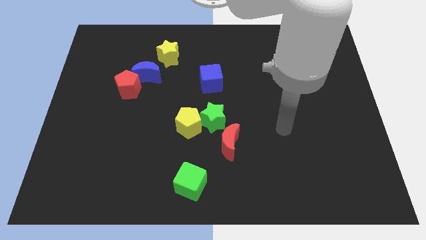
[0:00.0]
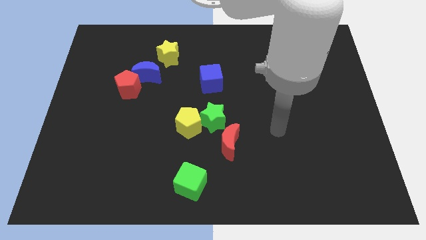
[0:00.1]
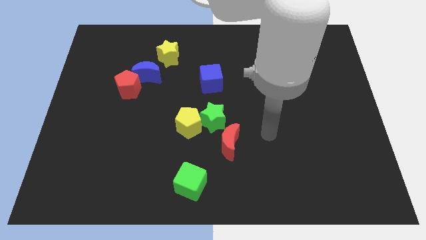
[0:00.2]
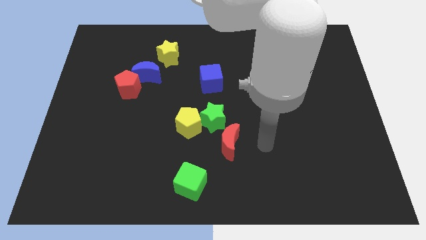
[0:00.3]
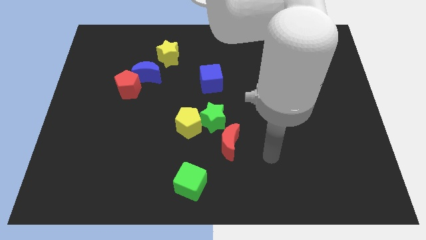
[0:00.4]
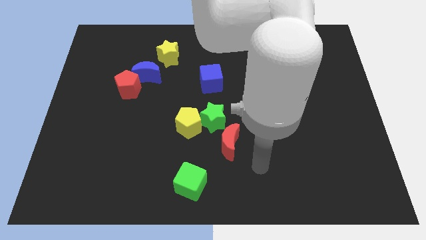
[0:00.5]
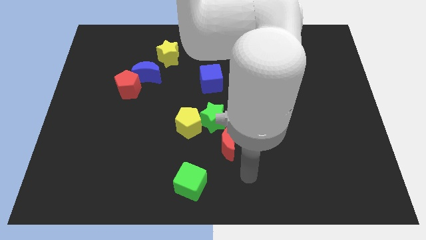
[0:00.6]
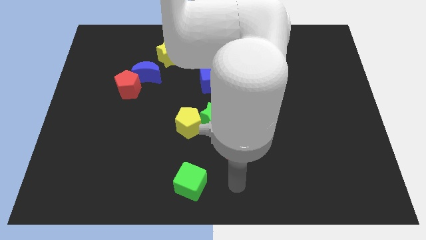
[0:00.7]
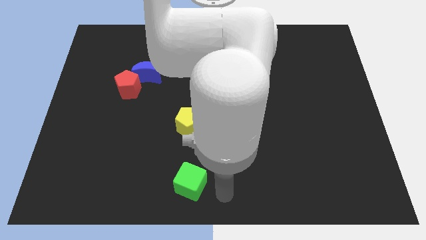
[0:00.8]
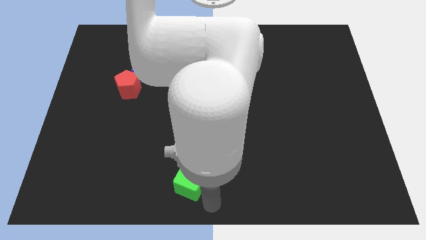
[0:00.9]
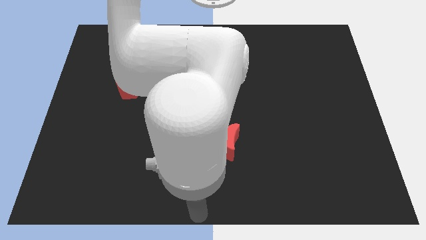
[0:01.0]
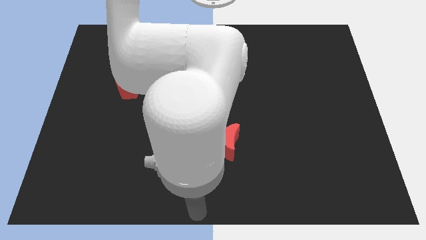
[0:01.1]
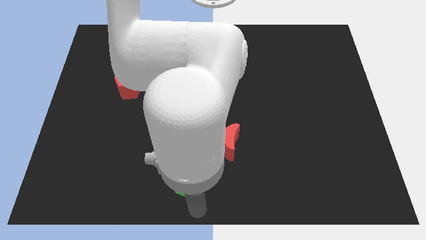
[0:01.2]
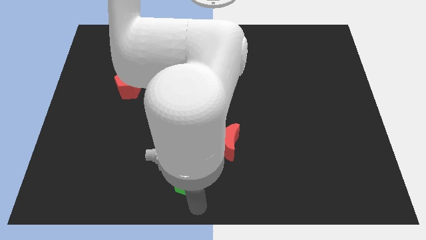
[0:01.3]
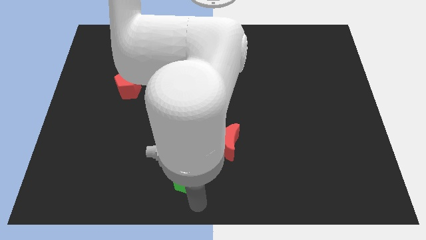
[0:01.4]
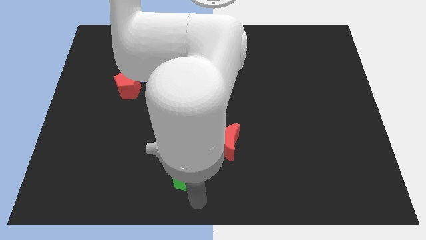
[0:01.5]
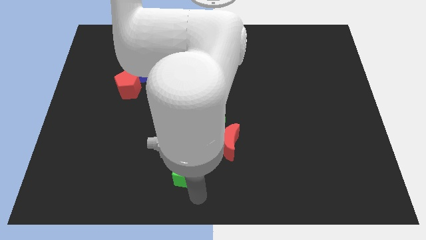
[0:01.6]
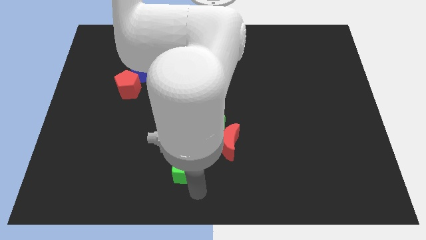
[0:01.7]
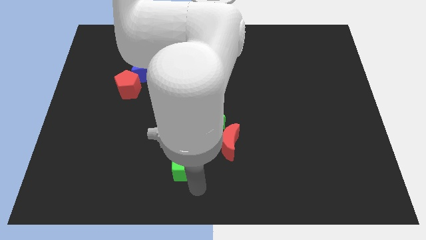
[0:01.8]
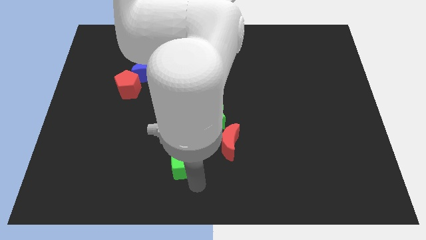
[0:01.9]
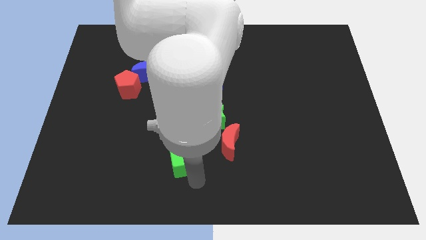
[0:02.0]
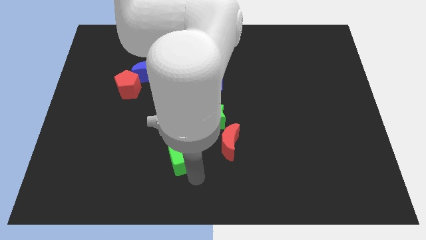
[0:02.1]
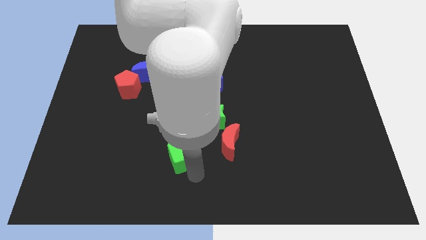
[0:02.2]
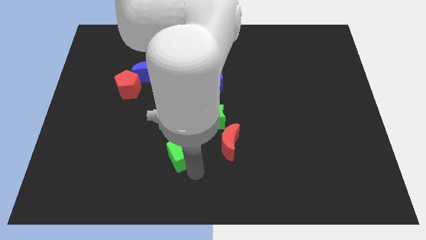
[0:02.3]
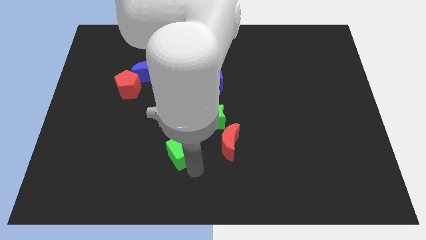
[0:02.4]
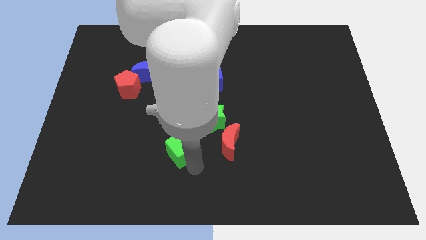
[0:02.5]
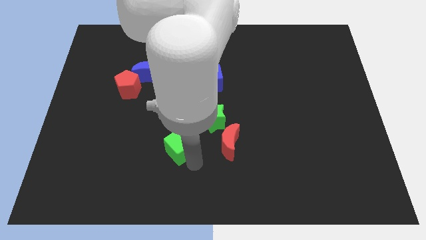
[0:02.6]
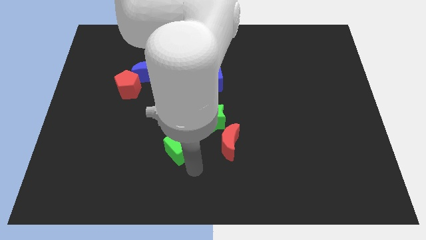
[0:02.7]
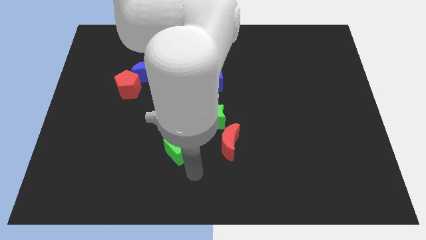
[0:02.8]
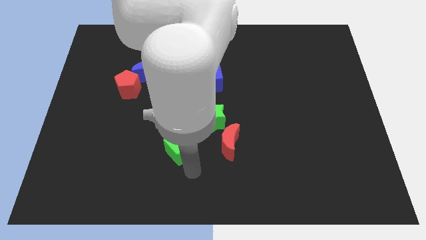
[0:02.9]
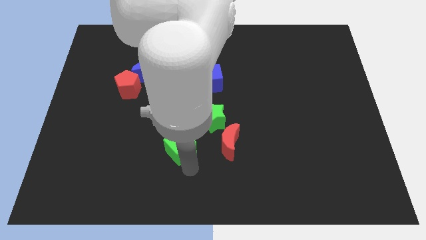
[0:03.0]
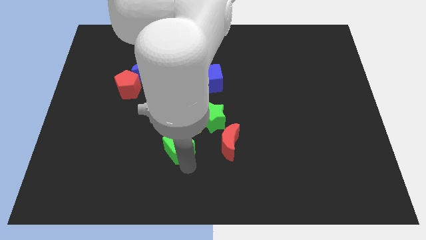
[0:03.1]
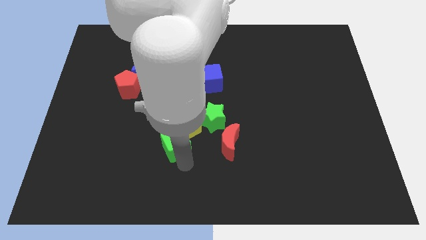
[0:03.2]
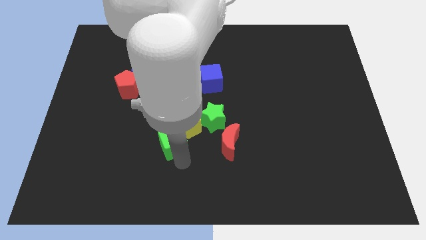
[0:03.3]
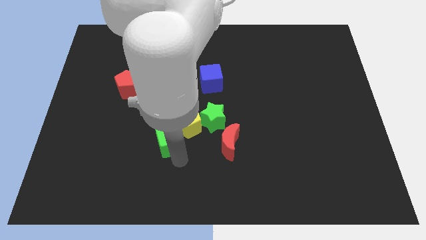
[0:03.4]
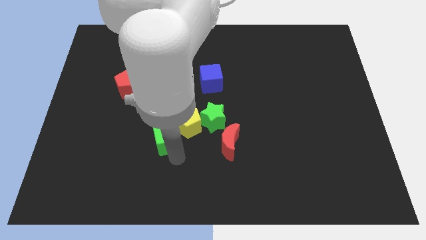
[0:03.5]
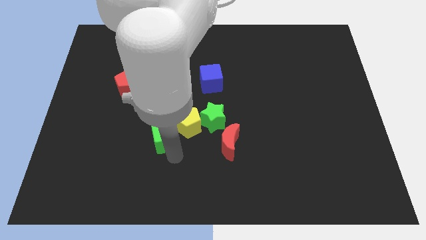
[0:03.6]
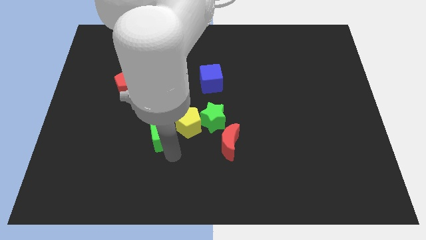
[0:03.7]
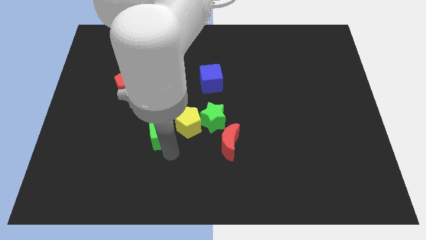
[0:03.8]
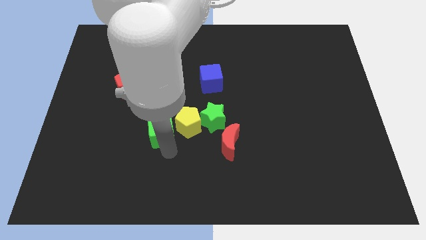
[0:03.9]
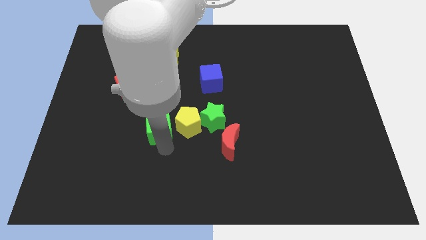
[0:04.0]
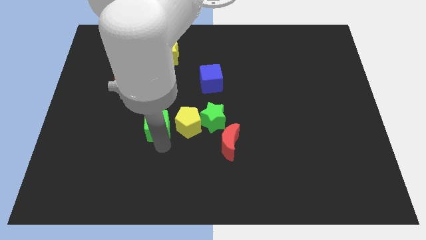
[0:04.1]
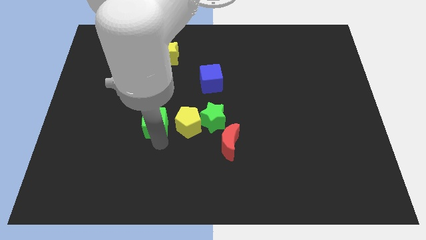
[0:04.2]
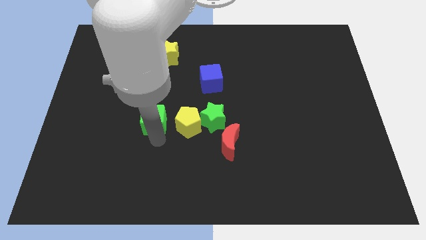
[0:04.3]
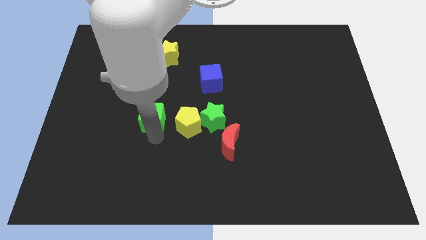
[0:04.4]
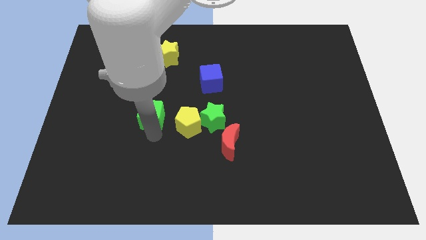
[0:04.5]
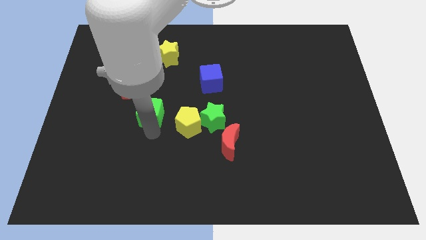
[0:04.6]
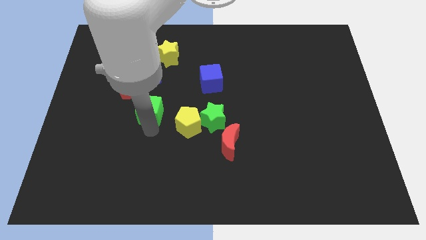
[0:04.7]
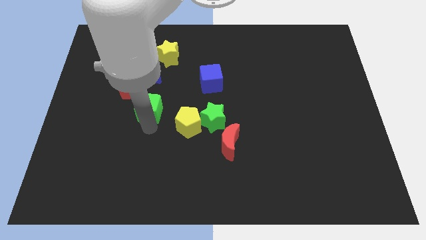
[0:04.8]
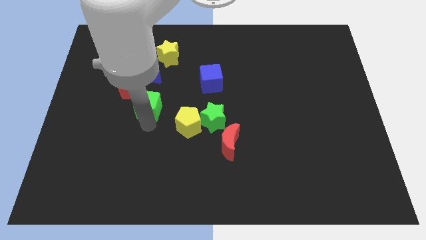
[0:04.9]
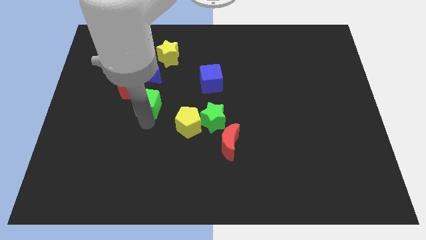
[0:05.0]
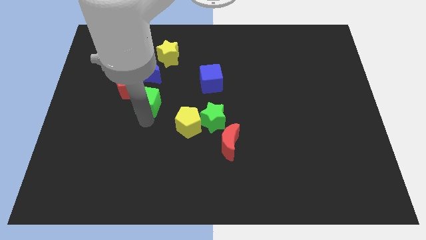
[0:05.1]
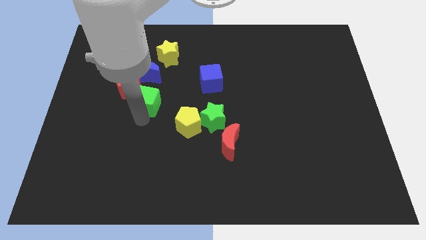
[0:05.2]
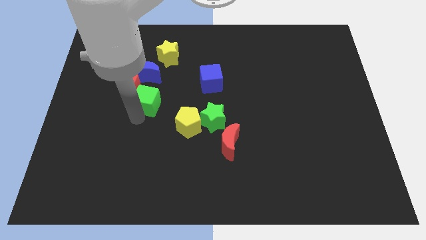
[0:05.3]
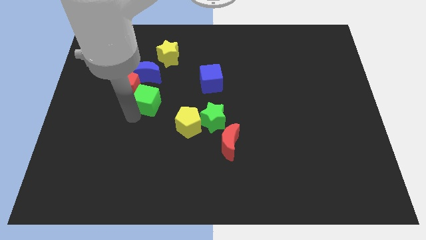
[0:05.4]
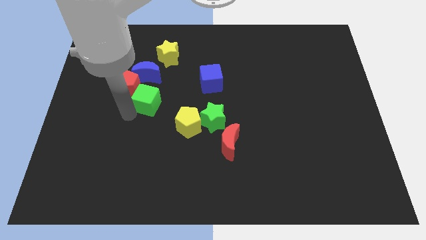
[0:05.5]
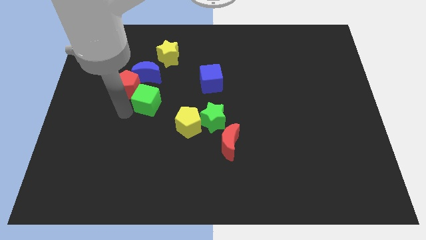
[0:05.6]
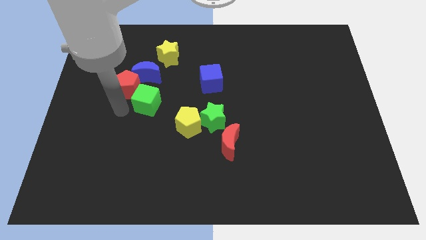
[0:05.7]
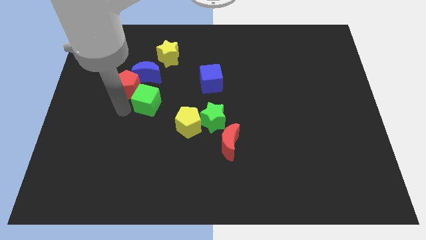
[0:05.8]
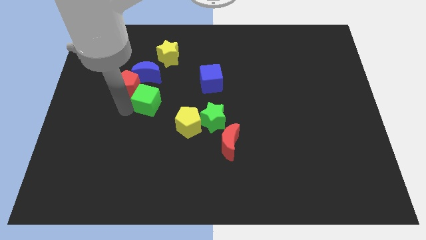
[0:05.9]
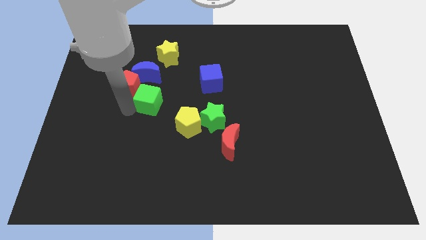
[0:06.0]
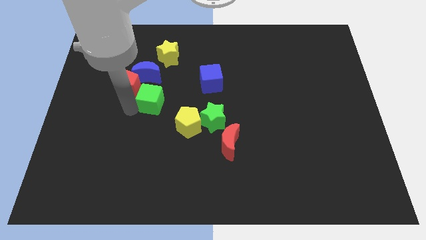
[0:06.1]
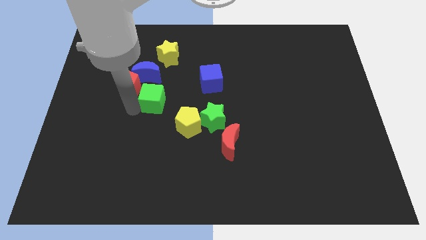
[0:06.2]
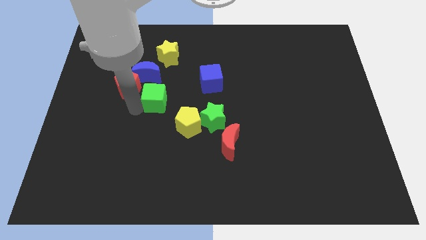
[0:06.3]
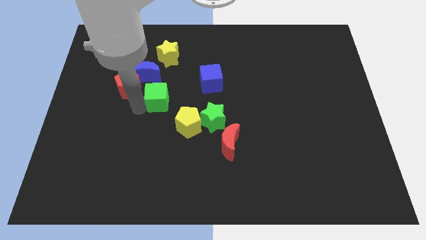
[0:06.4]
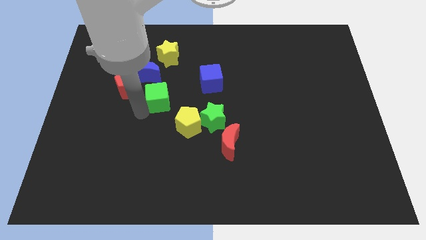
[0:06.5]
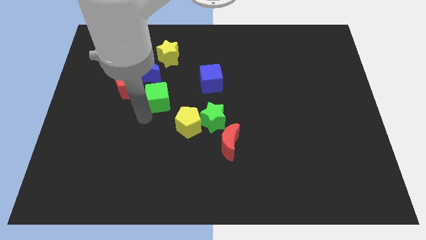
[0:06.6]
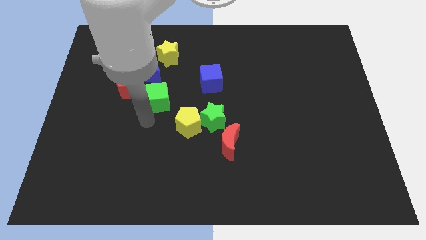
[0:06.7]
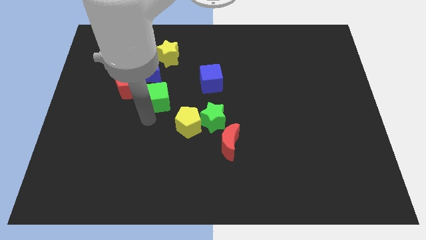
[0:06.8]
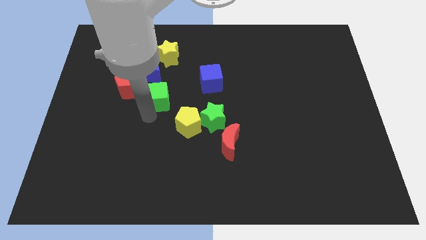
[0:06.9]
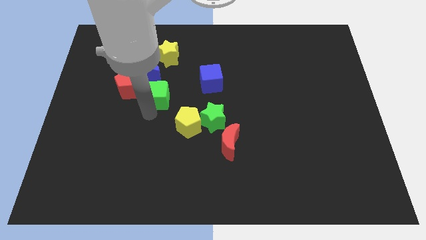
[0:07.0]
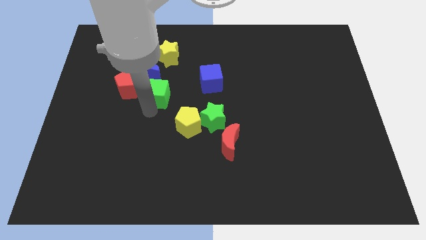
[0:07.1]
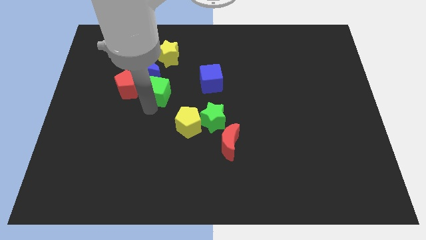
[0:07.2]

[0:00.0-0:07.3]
move the green cube up

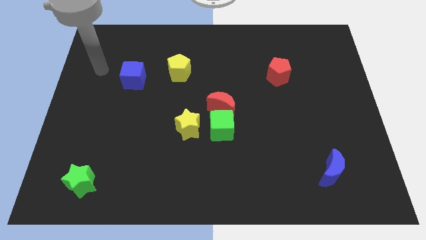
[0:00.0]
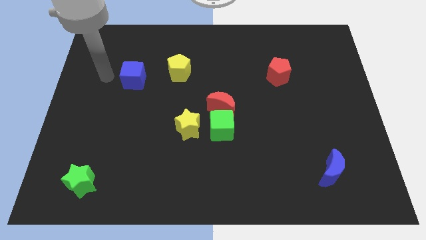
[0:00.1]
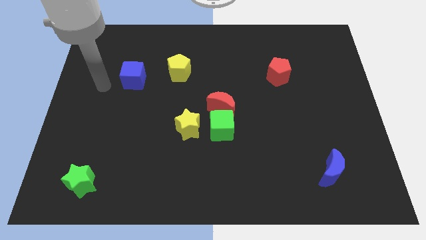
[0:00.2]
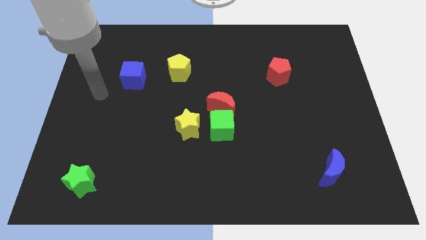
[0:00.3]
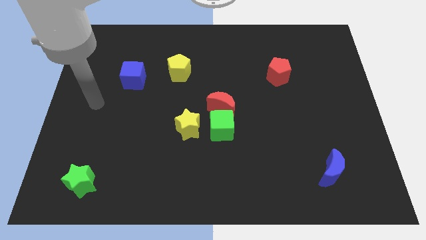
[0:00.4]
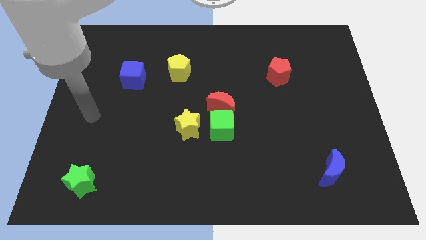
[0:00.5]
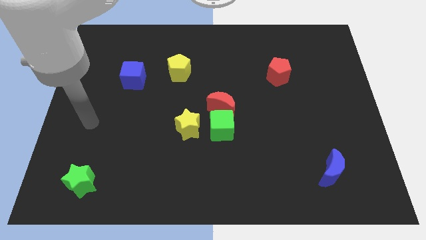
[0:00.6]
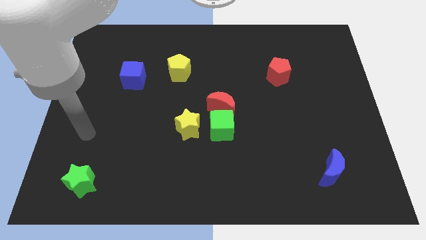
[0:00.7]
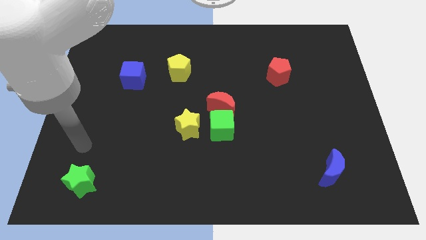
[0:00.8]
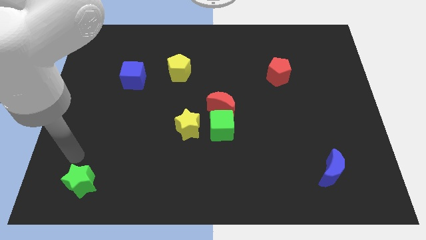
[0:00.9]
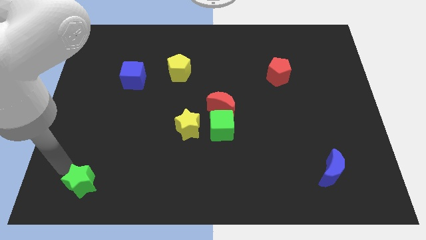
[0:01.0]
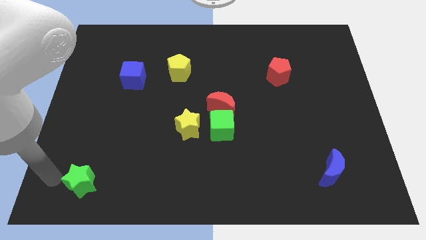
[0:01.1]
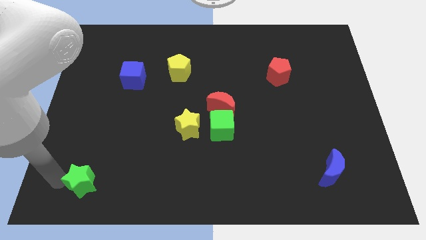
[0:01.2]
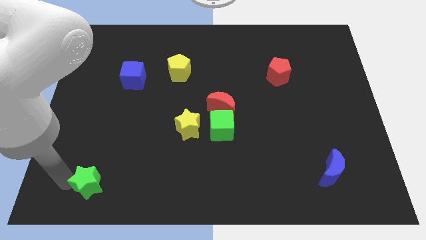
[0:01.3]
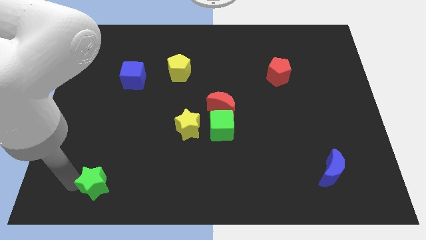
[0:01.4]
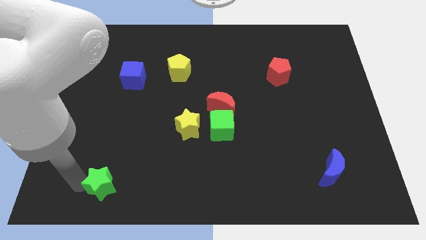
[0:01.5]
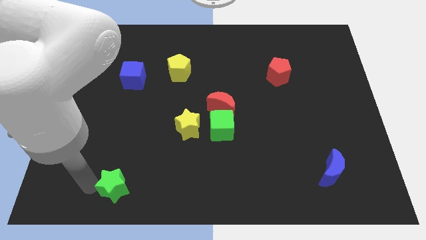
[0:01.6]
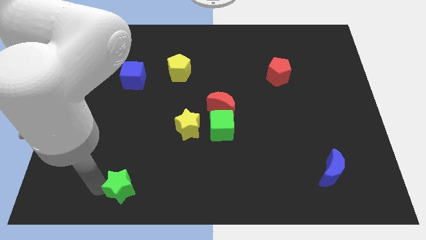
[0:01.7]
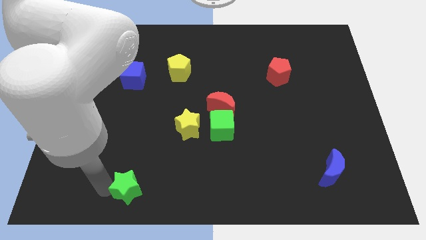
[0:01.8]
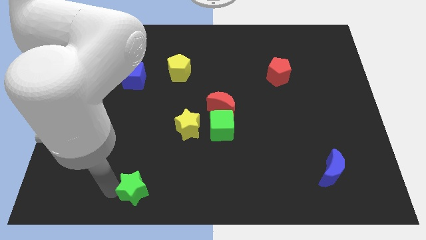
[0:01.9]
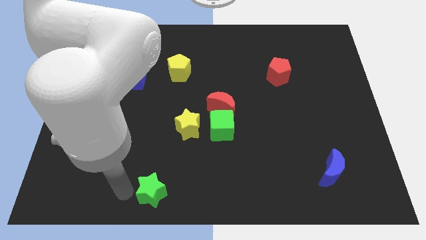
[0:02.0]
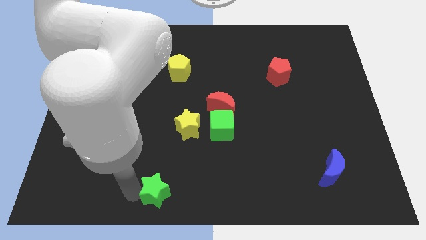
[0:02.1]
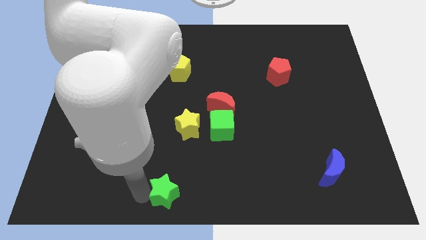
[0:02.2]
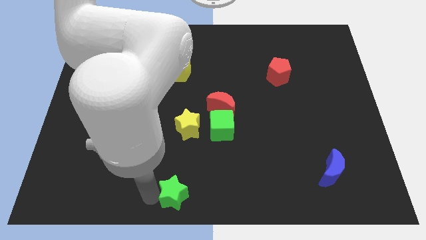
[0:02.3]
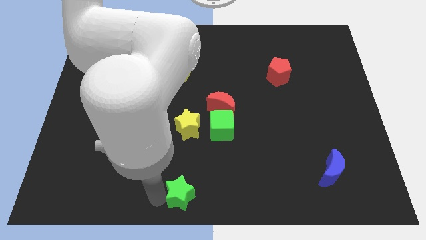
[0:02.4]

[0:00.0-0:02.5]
push the green star right
